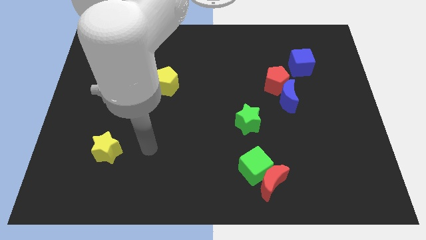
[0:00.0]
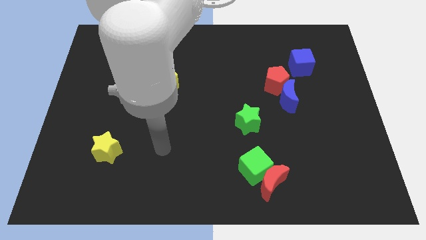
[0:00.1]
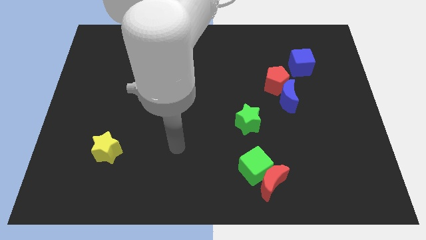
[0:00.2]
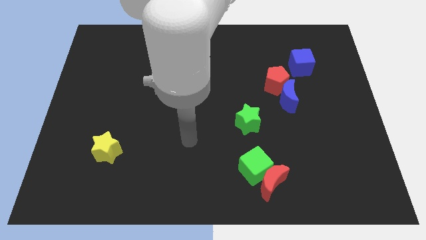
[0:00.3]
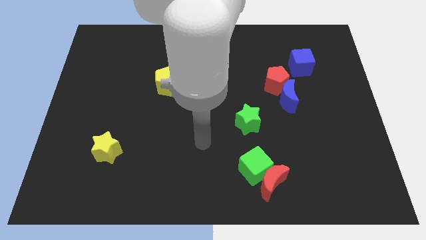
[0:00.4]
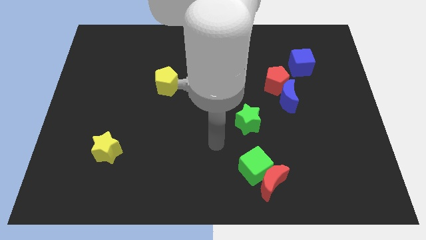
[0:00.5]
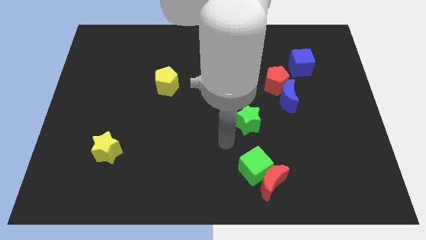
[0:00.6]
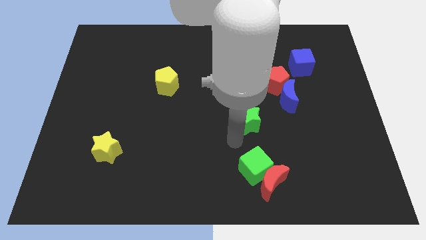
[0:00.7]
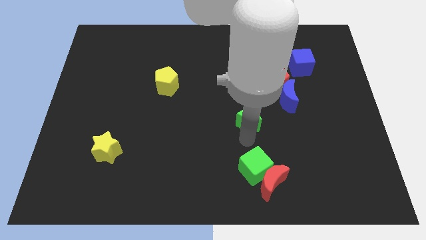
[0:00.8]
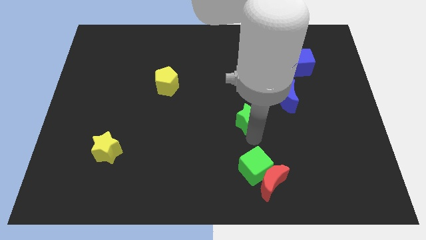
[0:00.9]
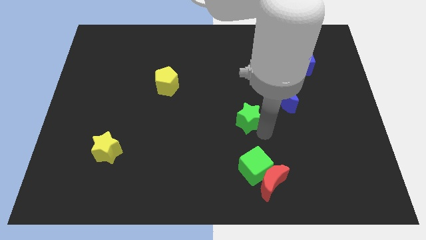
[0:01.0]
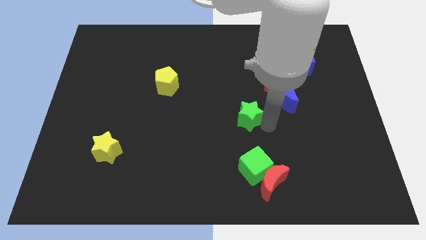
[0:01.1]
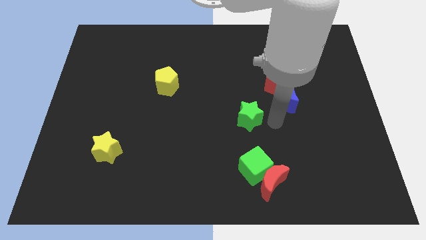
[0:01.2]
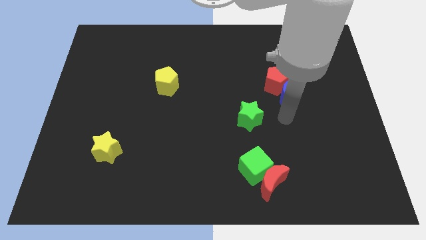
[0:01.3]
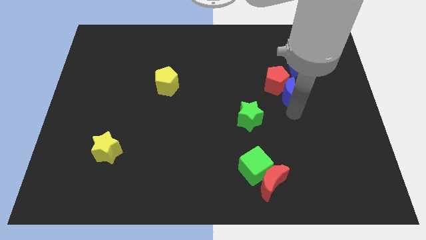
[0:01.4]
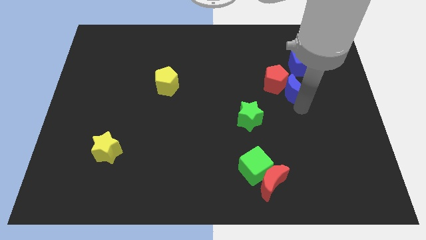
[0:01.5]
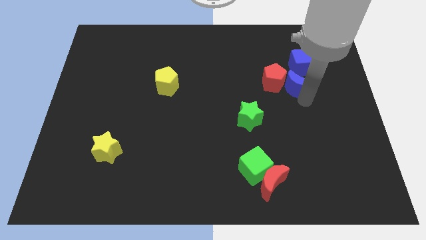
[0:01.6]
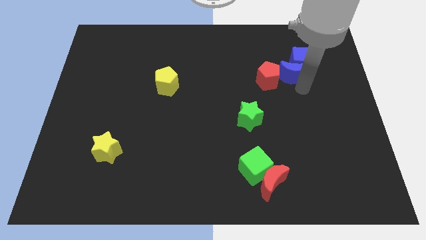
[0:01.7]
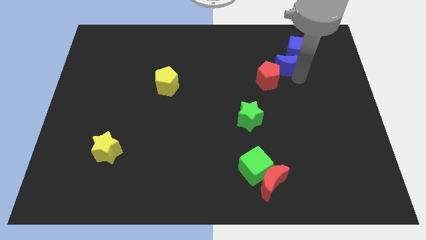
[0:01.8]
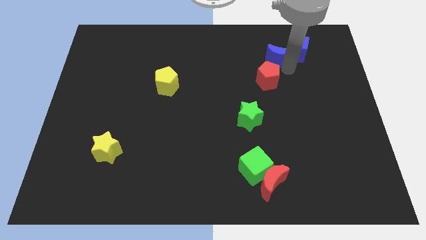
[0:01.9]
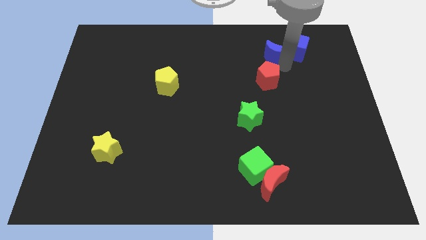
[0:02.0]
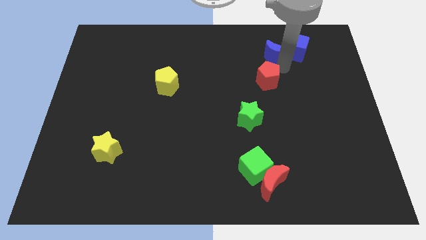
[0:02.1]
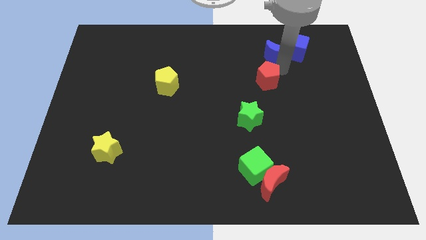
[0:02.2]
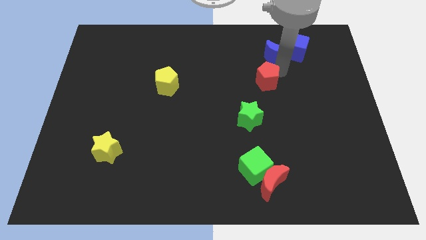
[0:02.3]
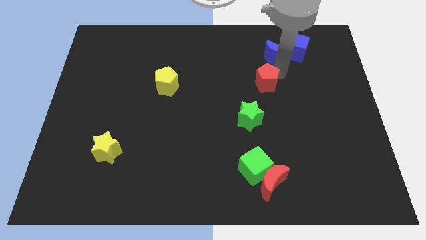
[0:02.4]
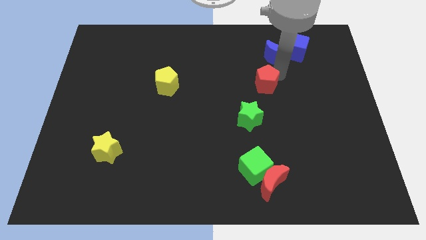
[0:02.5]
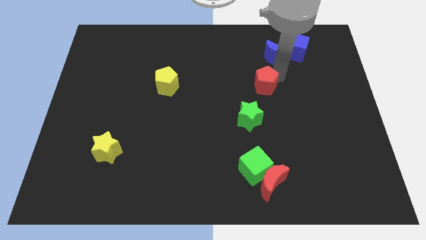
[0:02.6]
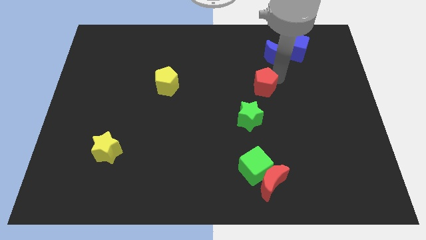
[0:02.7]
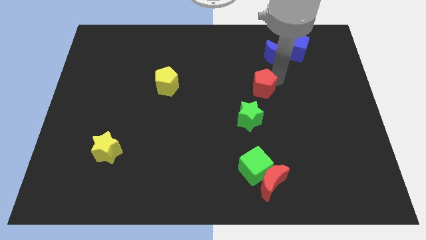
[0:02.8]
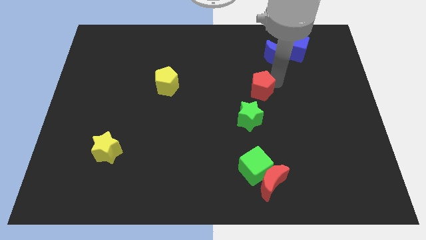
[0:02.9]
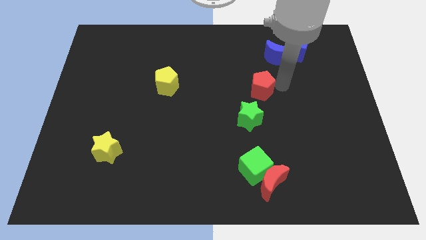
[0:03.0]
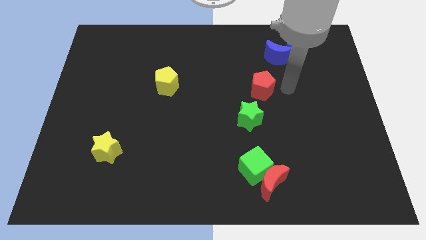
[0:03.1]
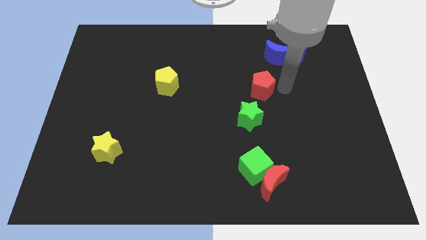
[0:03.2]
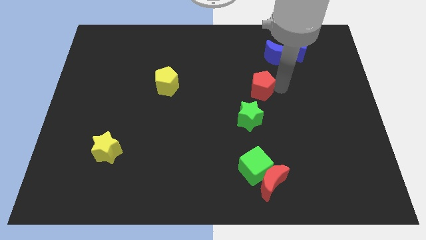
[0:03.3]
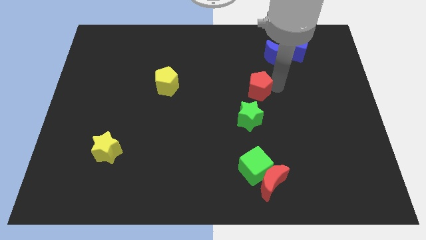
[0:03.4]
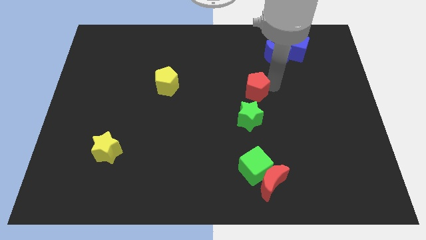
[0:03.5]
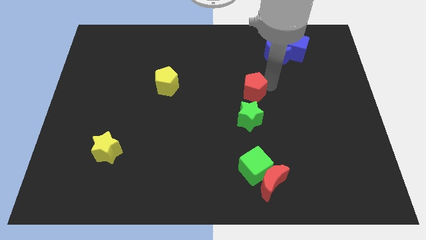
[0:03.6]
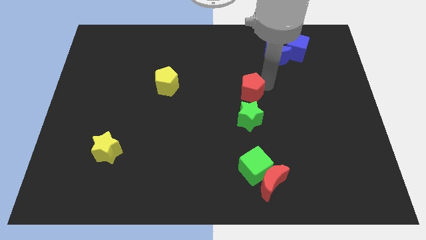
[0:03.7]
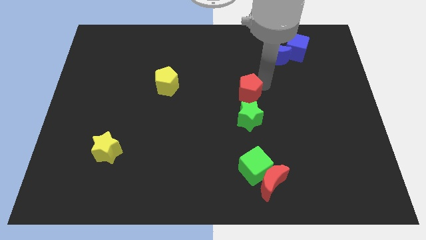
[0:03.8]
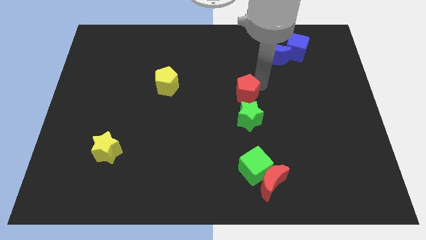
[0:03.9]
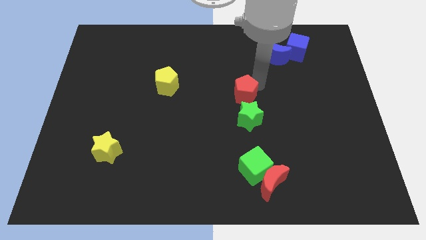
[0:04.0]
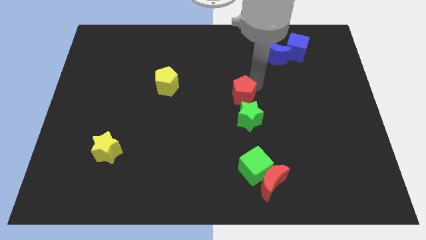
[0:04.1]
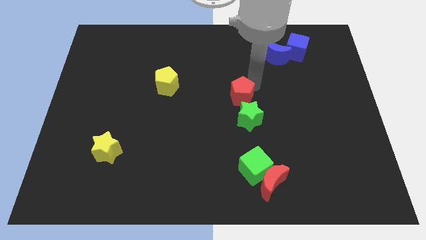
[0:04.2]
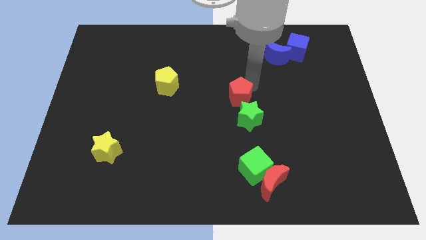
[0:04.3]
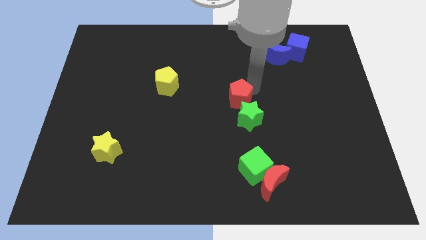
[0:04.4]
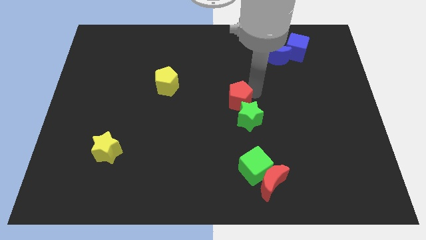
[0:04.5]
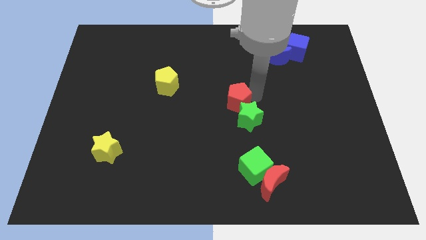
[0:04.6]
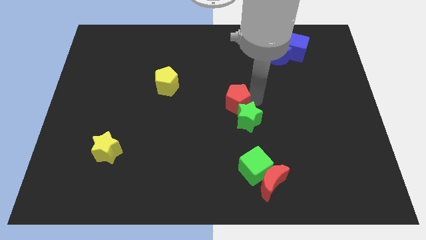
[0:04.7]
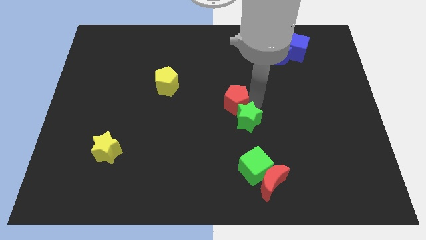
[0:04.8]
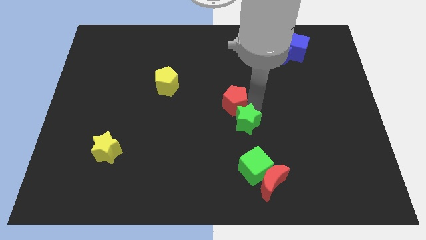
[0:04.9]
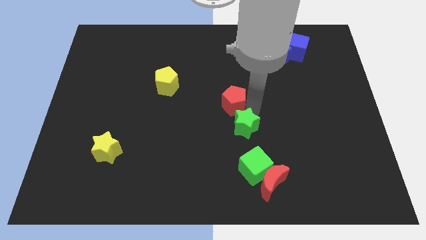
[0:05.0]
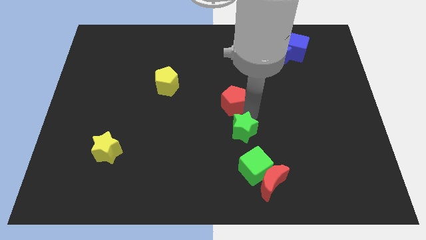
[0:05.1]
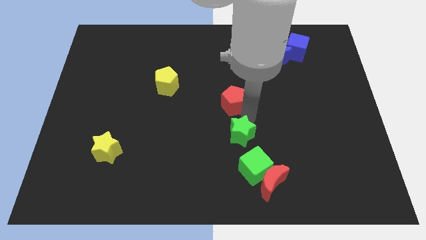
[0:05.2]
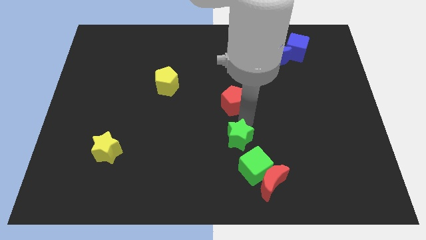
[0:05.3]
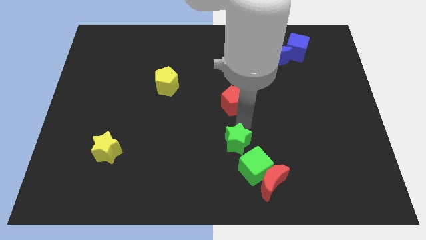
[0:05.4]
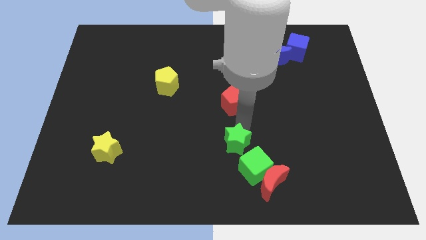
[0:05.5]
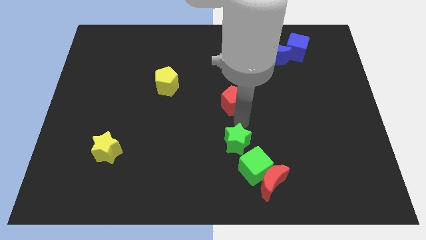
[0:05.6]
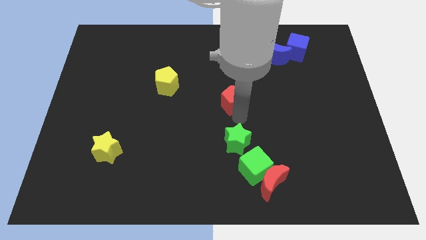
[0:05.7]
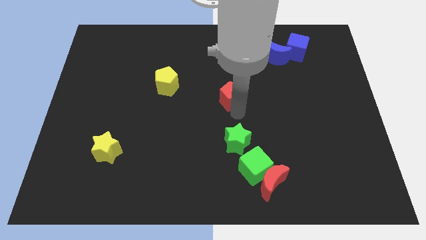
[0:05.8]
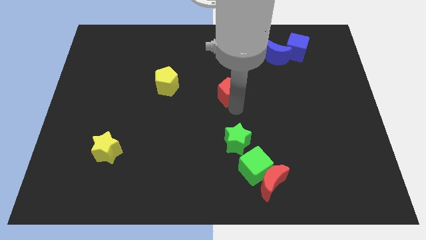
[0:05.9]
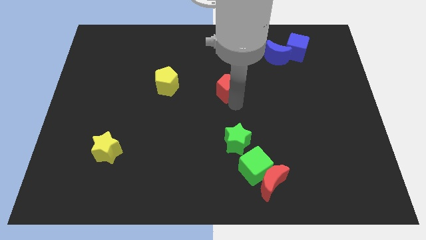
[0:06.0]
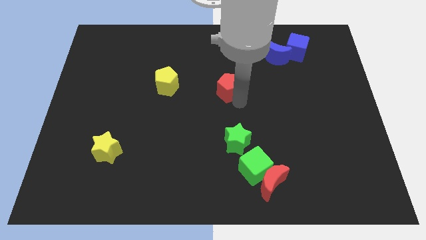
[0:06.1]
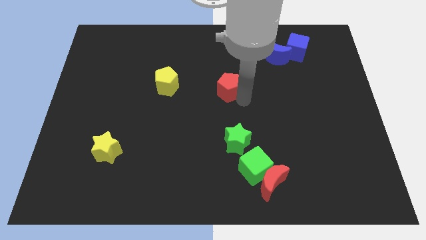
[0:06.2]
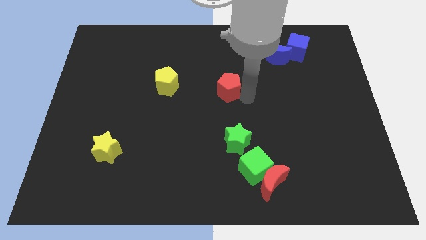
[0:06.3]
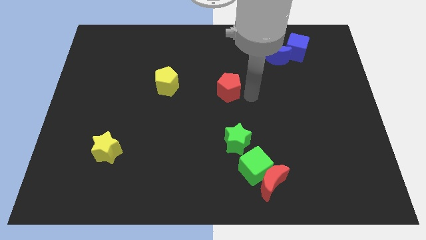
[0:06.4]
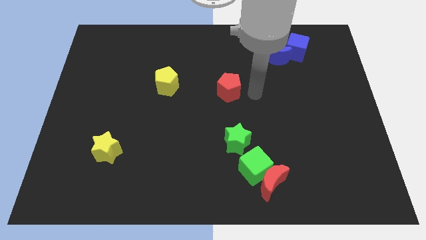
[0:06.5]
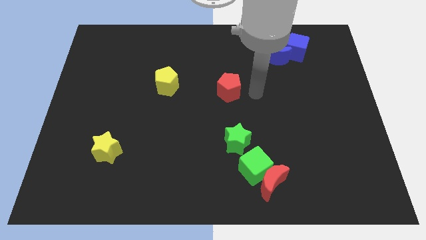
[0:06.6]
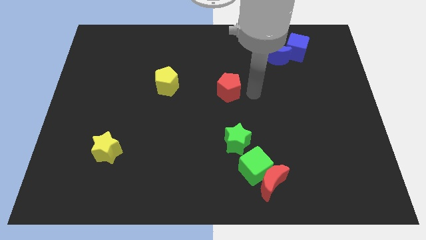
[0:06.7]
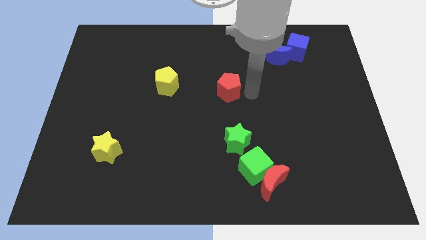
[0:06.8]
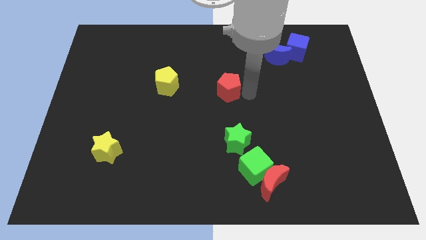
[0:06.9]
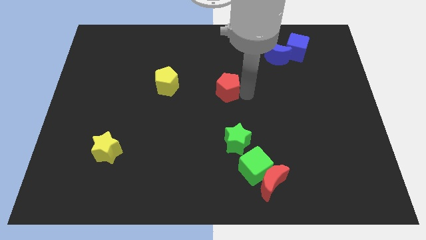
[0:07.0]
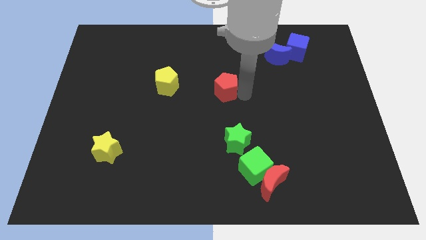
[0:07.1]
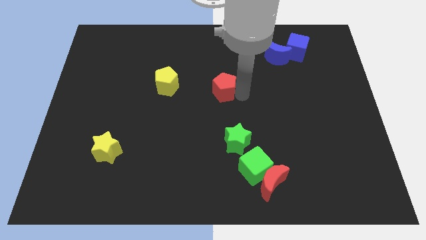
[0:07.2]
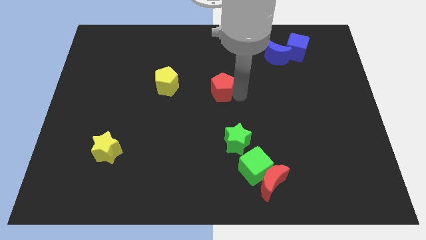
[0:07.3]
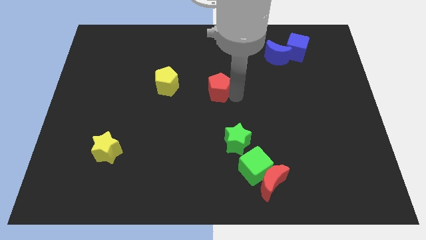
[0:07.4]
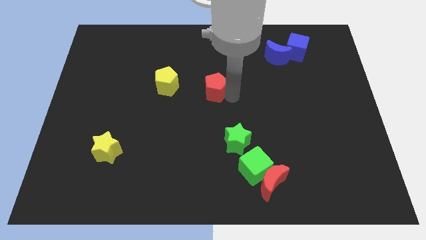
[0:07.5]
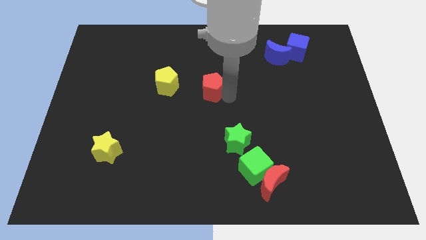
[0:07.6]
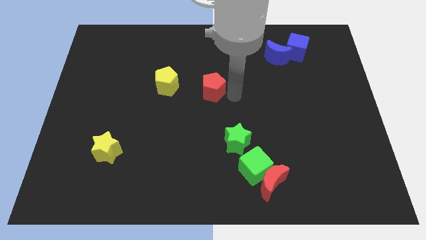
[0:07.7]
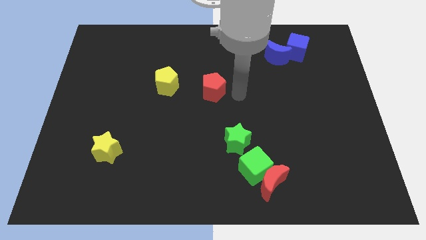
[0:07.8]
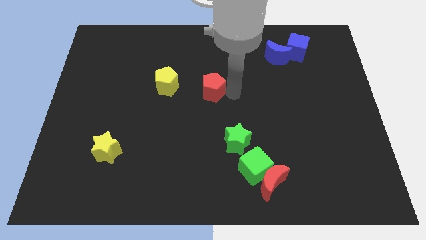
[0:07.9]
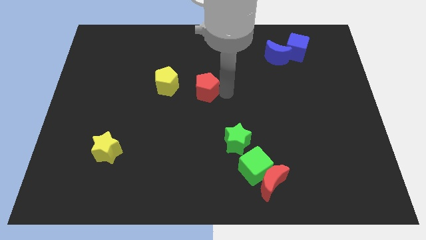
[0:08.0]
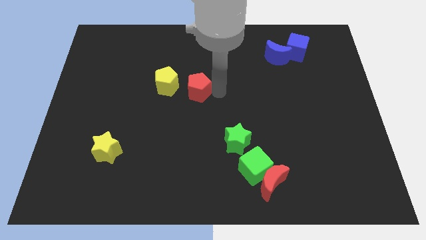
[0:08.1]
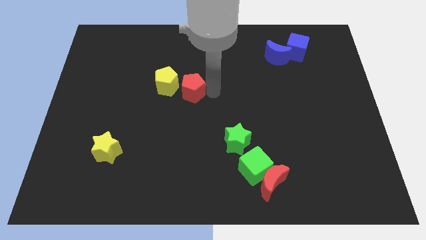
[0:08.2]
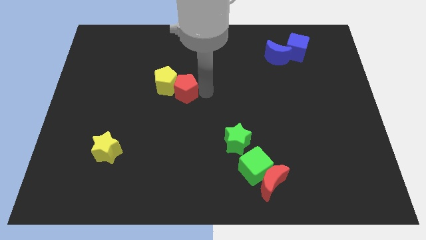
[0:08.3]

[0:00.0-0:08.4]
slide the red pentagon next to the yellow pentagon

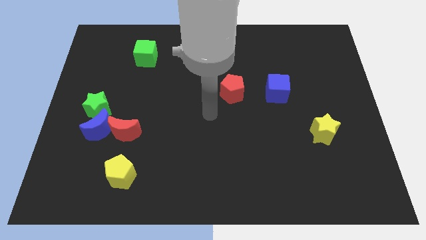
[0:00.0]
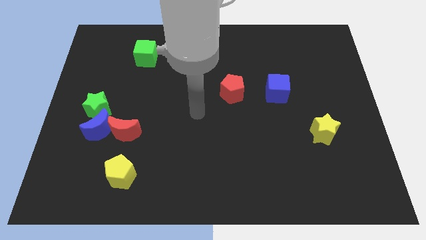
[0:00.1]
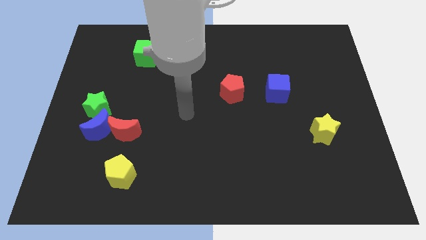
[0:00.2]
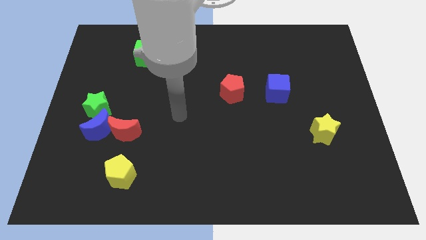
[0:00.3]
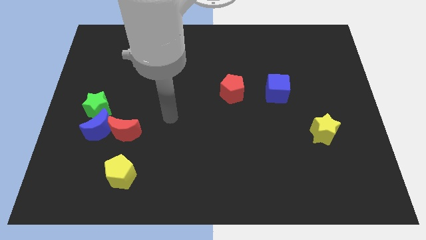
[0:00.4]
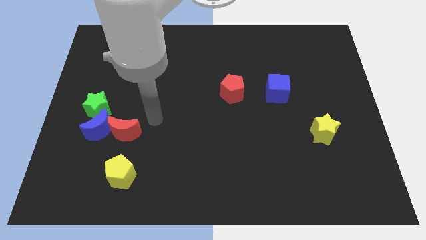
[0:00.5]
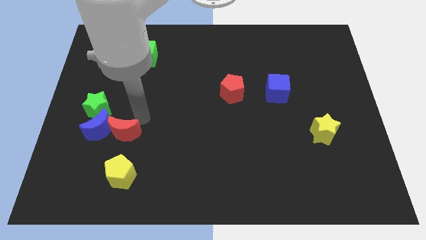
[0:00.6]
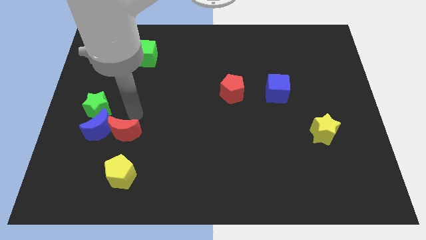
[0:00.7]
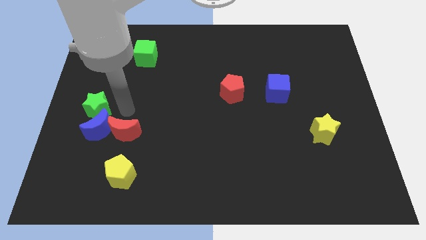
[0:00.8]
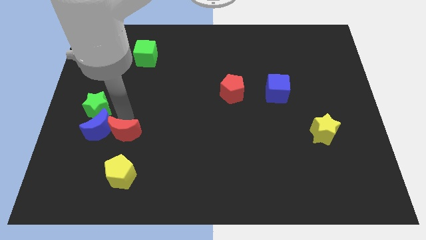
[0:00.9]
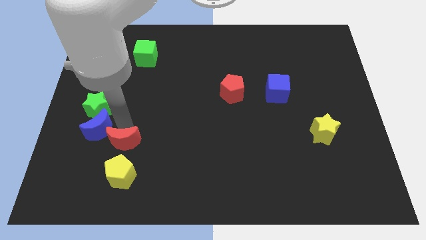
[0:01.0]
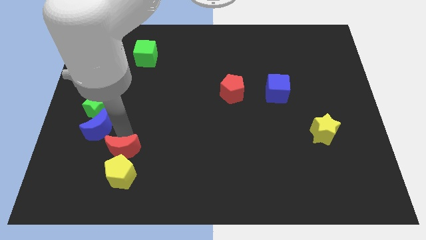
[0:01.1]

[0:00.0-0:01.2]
slide the red moon next to the yellow pentagon
